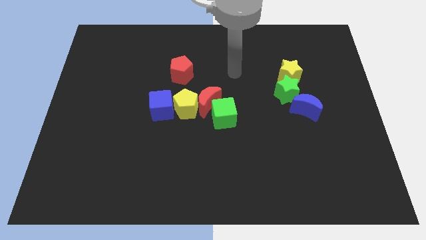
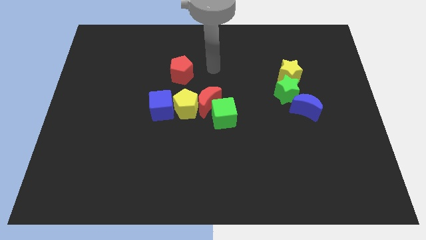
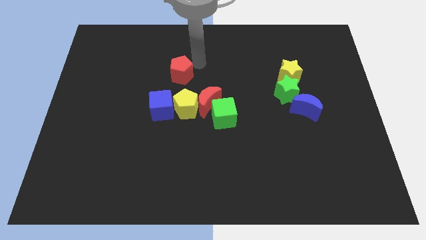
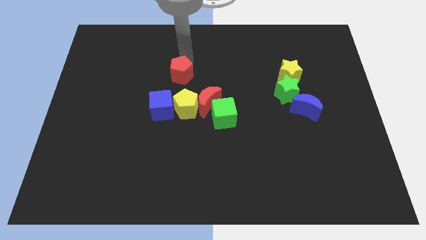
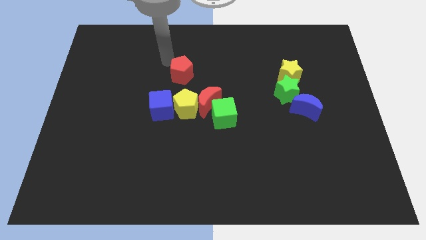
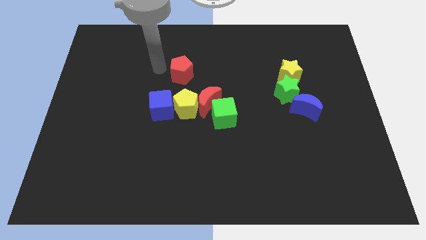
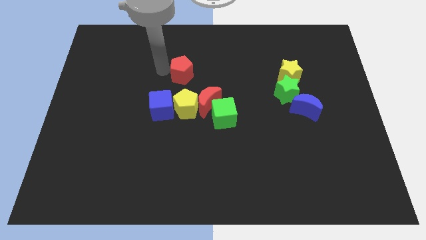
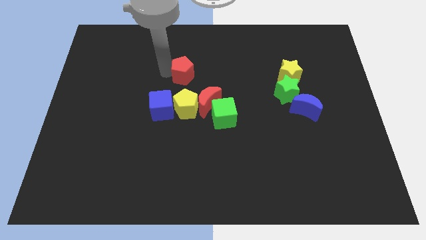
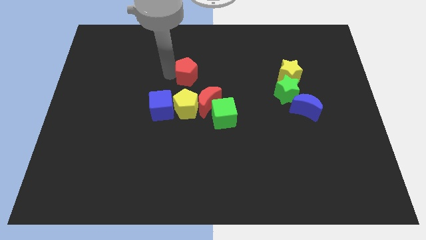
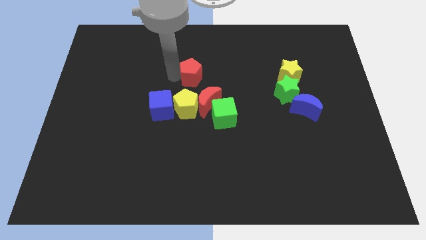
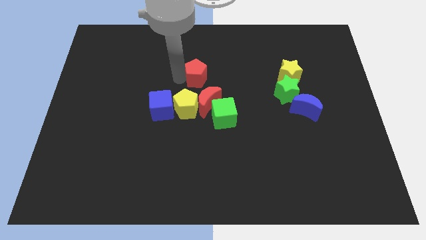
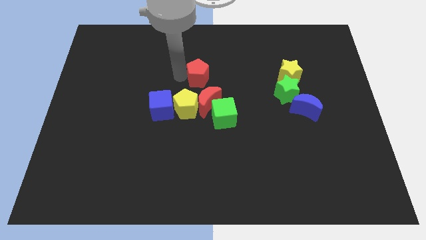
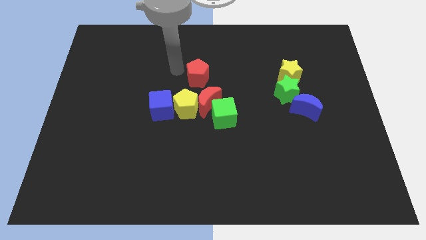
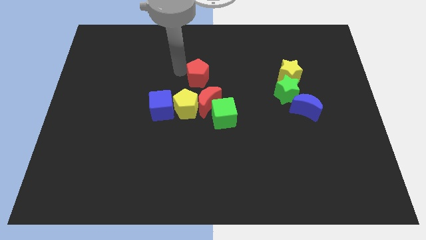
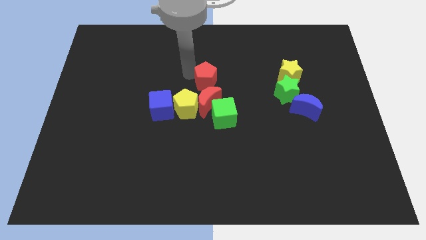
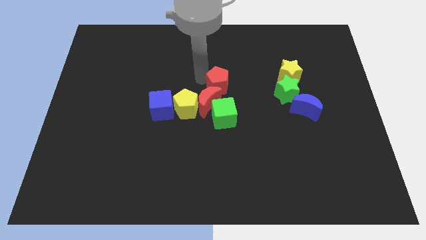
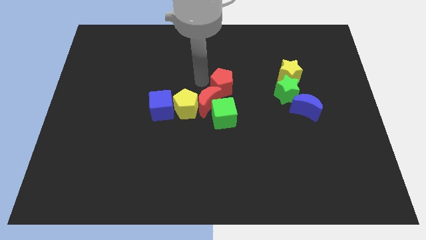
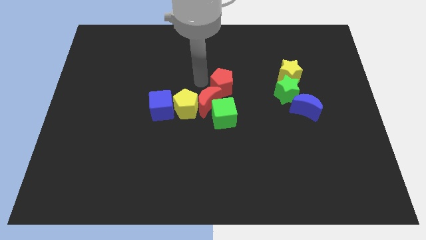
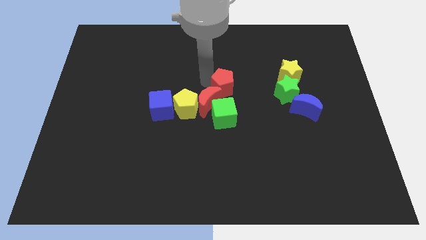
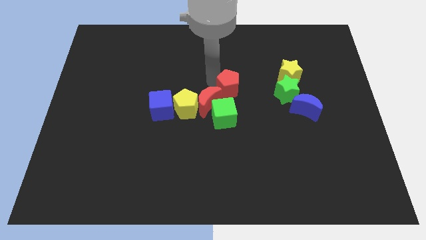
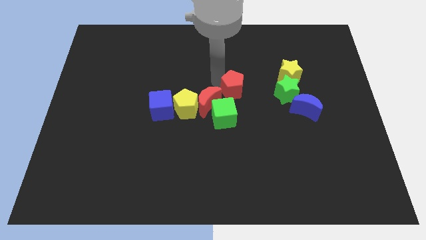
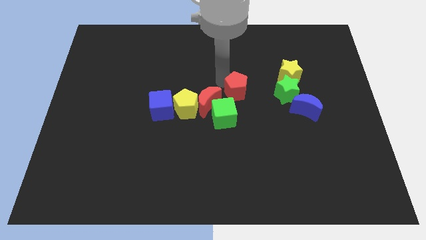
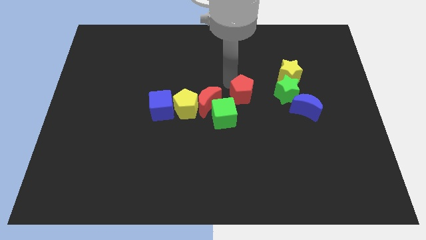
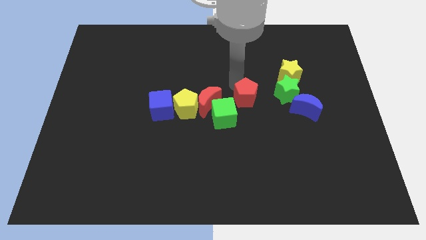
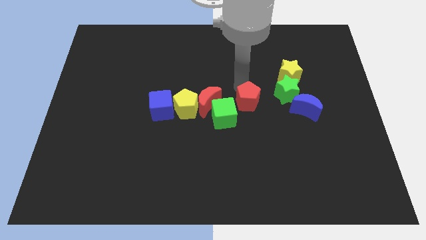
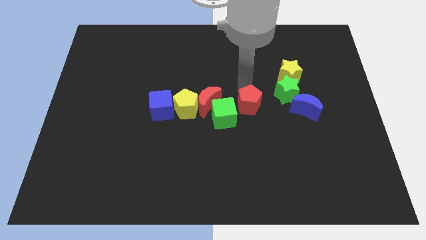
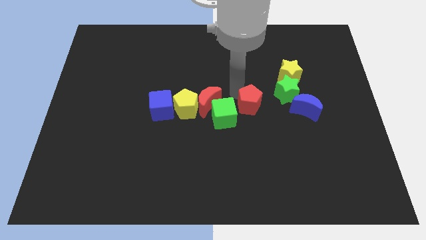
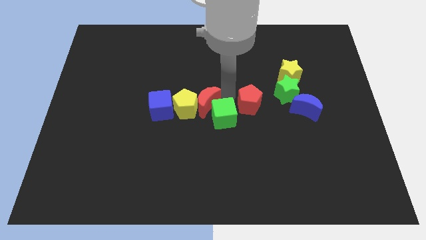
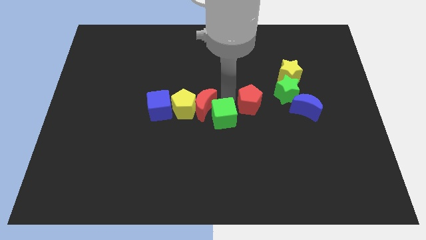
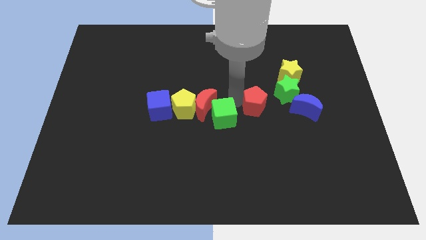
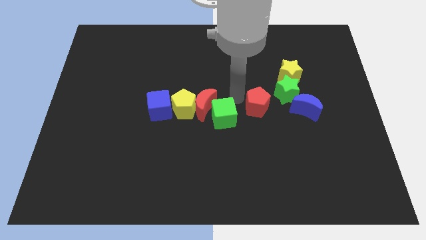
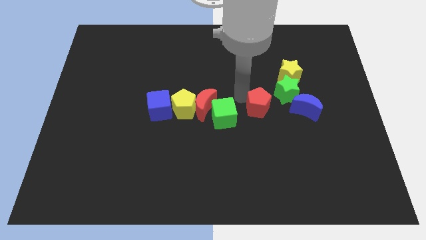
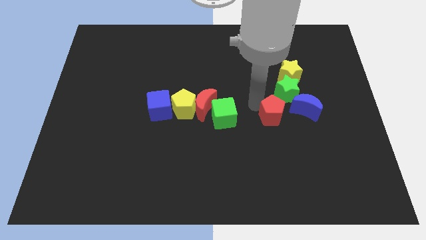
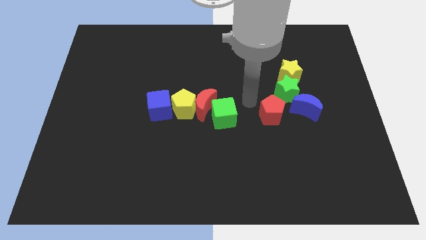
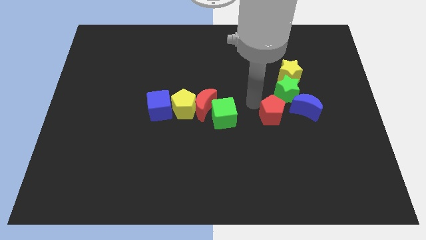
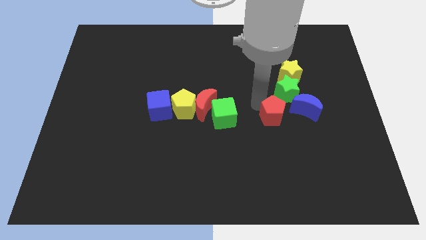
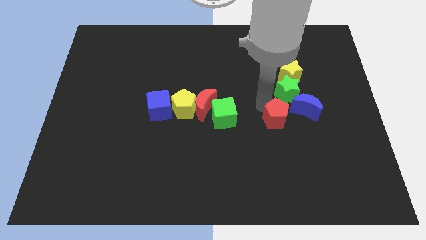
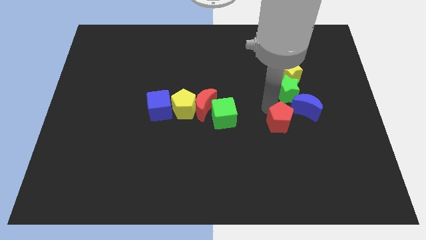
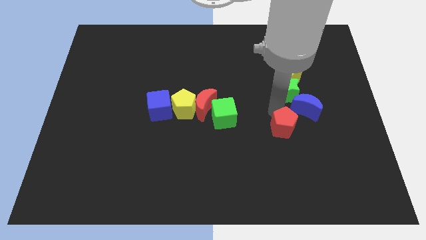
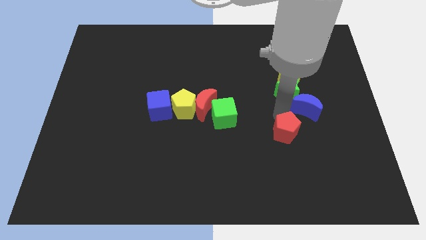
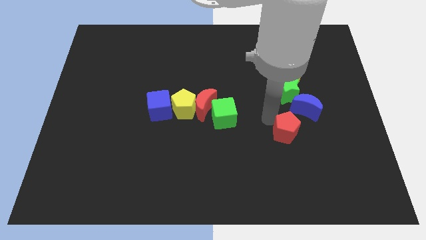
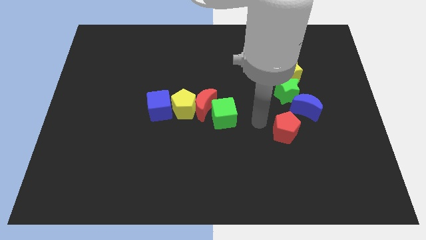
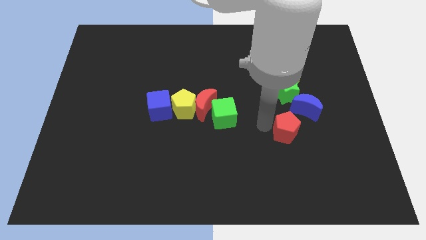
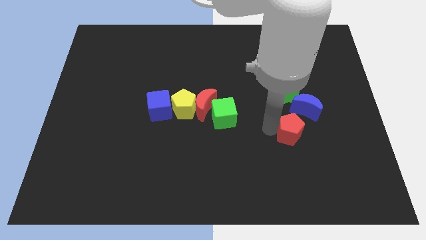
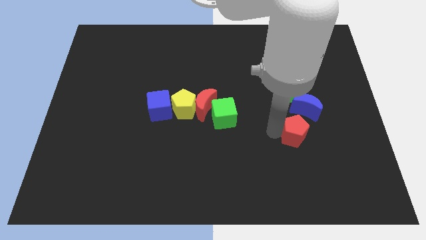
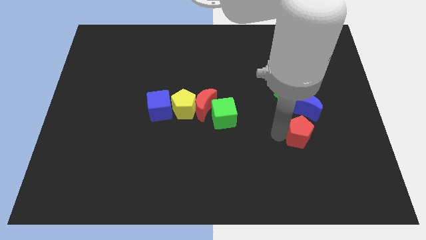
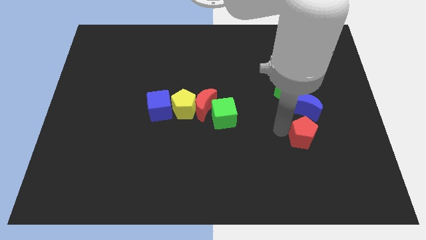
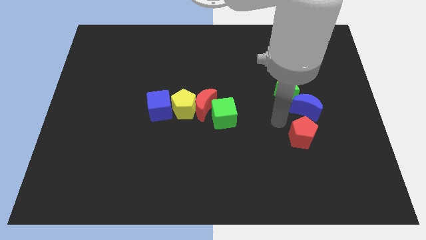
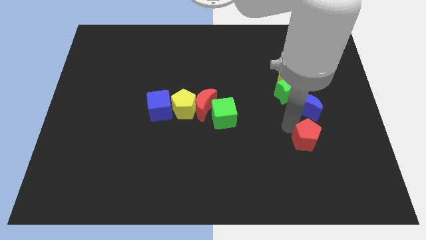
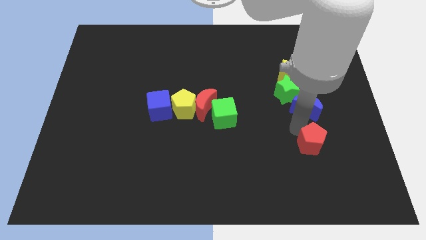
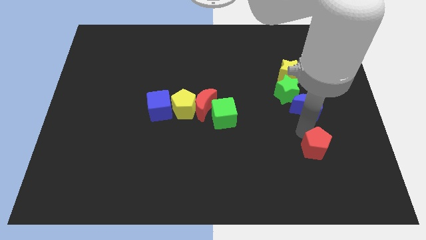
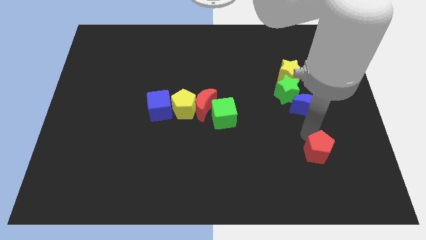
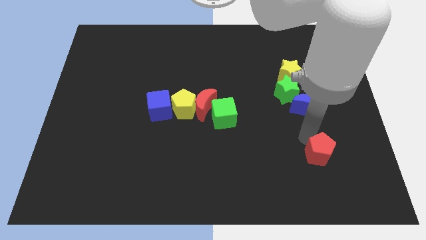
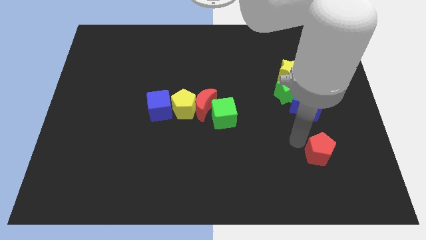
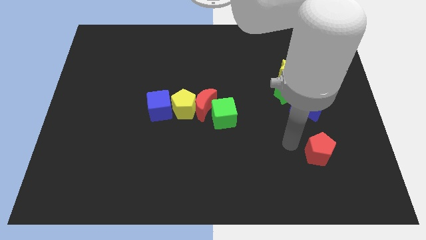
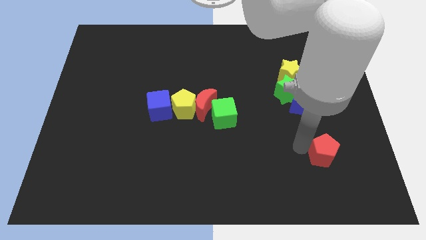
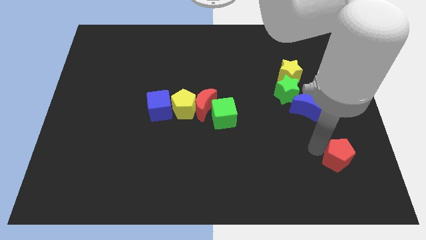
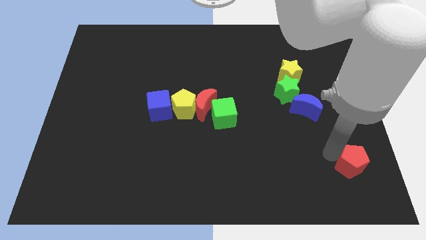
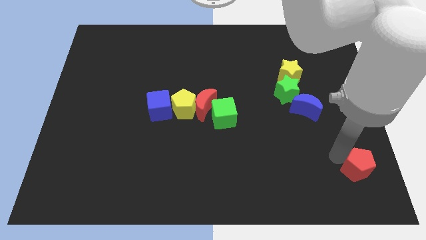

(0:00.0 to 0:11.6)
move the red pentagon to the lower right corner
